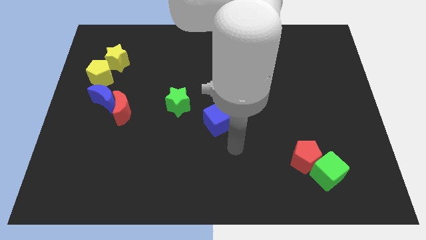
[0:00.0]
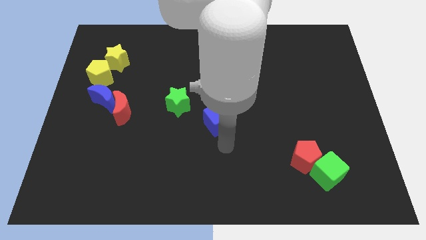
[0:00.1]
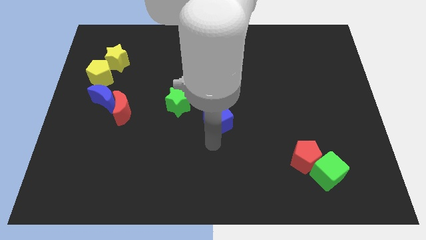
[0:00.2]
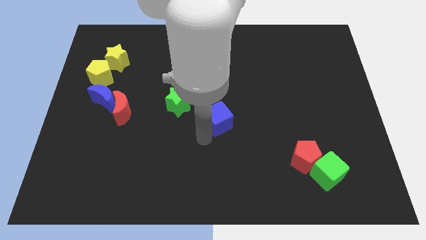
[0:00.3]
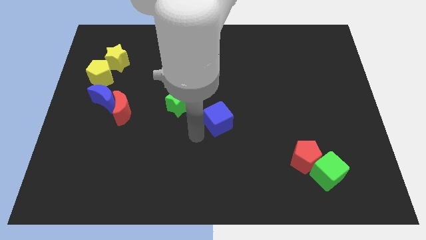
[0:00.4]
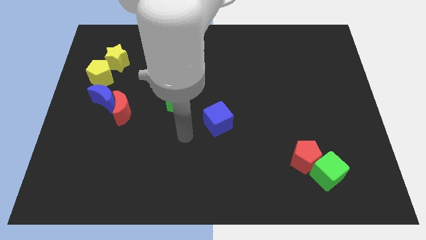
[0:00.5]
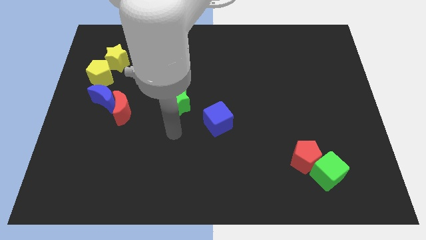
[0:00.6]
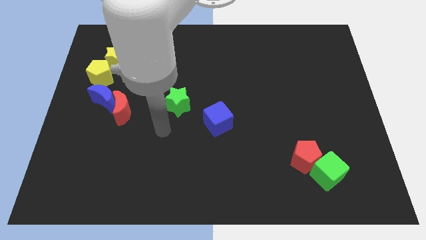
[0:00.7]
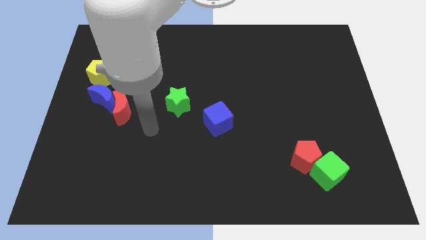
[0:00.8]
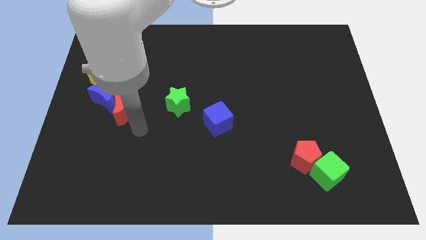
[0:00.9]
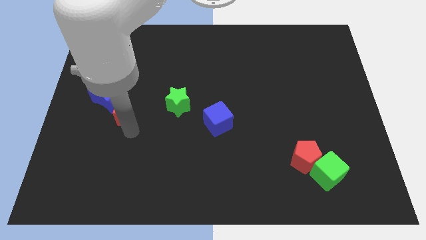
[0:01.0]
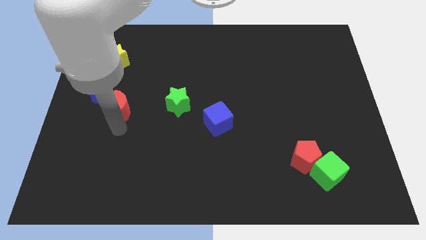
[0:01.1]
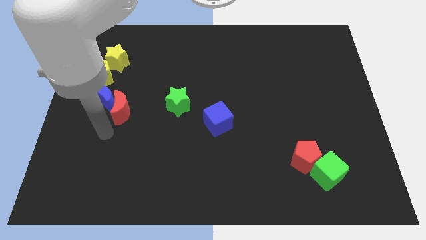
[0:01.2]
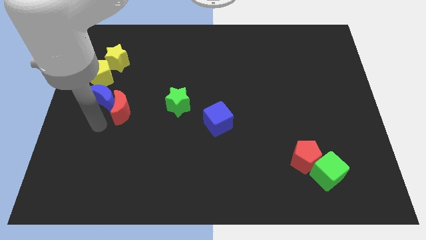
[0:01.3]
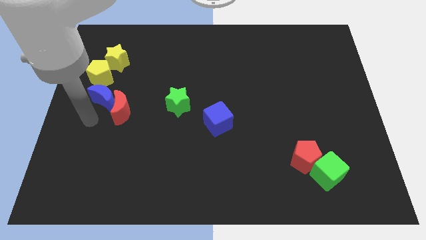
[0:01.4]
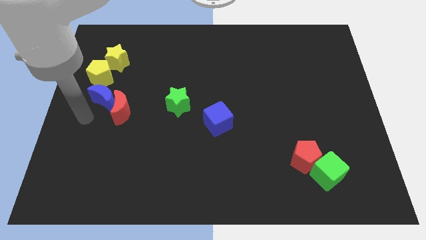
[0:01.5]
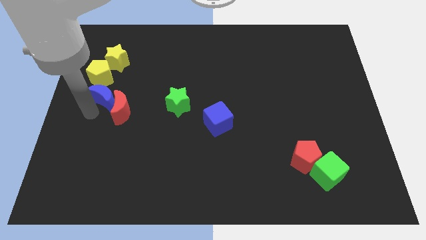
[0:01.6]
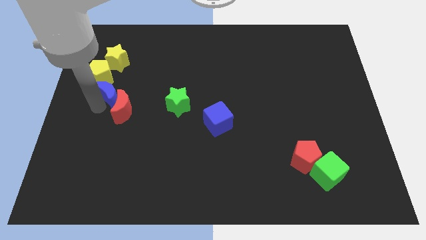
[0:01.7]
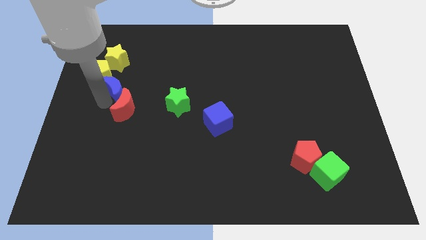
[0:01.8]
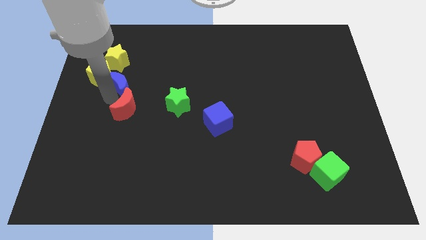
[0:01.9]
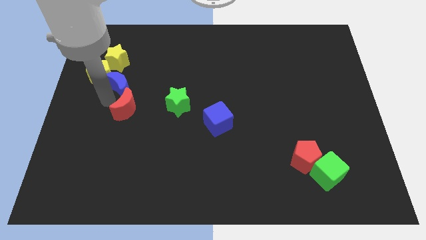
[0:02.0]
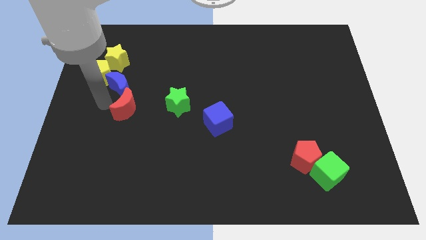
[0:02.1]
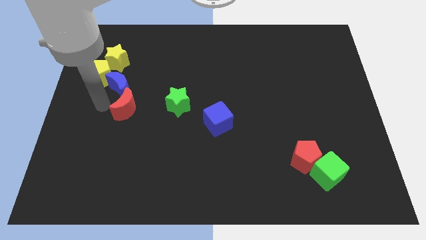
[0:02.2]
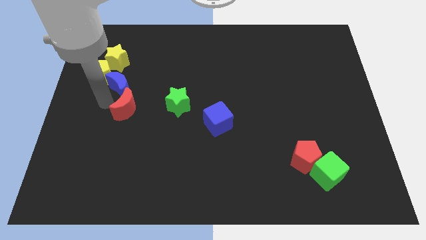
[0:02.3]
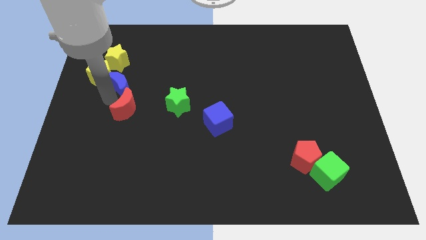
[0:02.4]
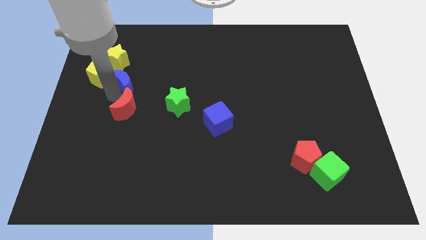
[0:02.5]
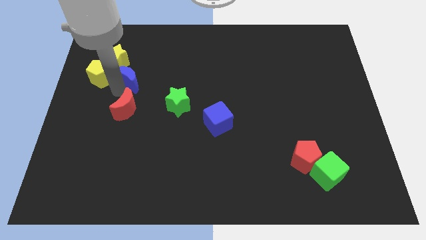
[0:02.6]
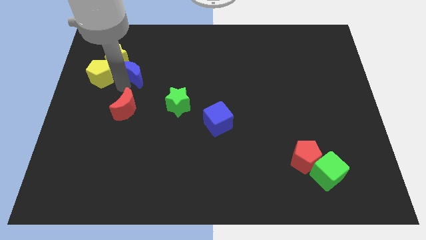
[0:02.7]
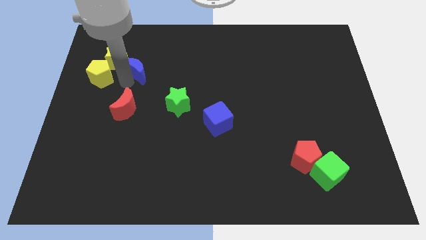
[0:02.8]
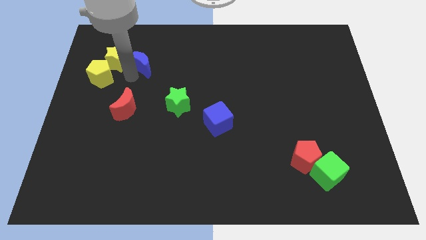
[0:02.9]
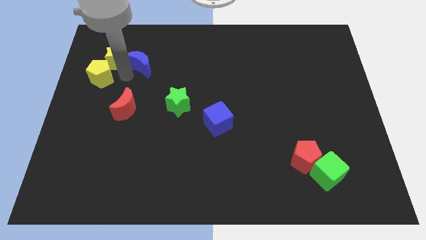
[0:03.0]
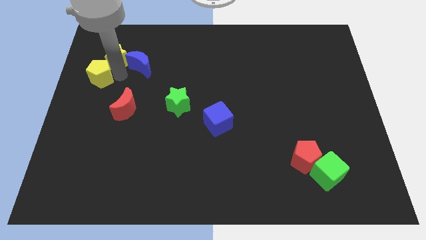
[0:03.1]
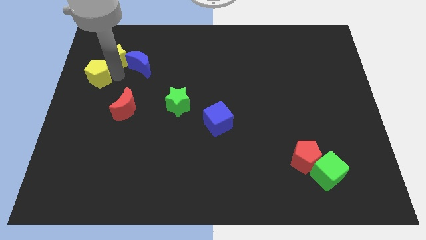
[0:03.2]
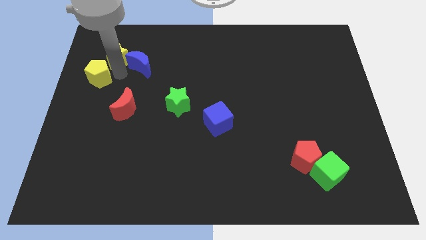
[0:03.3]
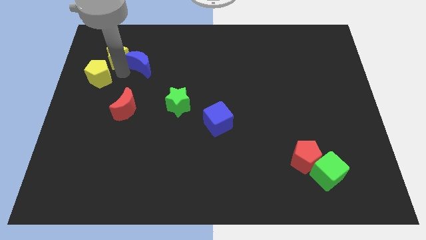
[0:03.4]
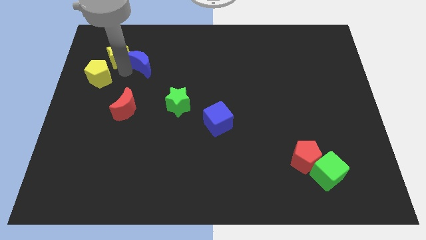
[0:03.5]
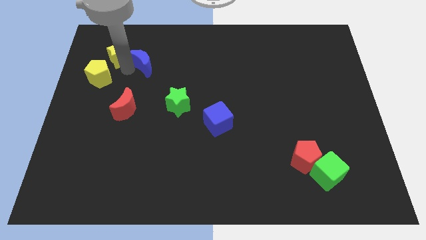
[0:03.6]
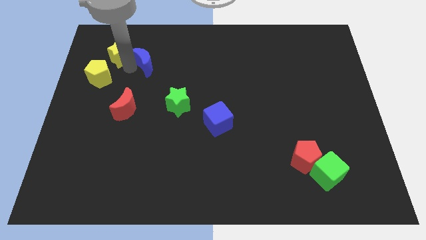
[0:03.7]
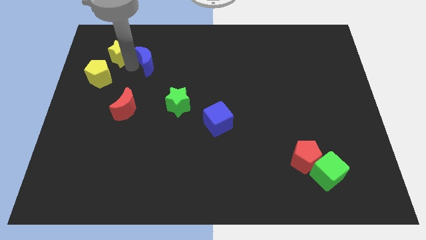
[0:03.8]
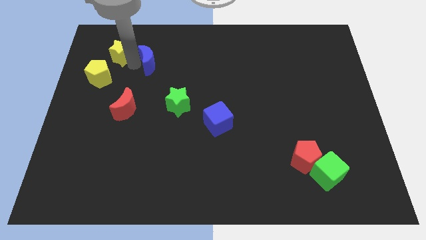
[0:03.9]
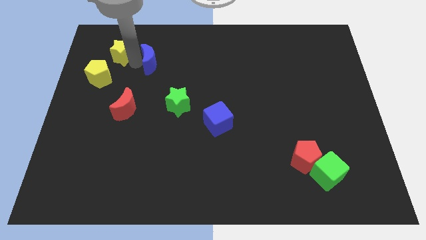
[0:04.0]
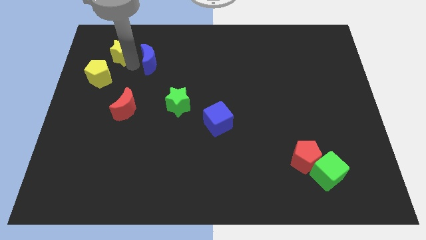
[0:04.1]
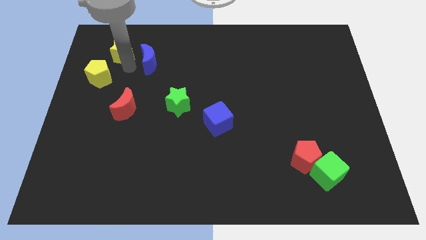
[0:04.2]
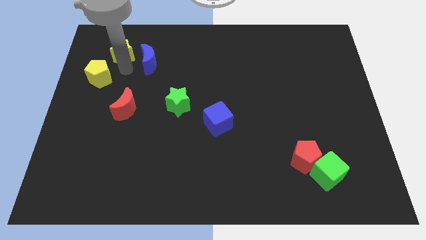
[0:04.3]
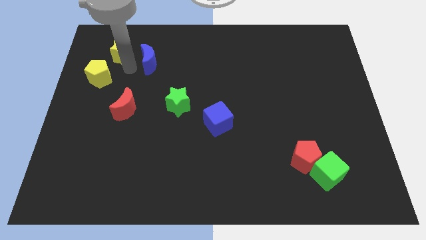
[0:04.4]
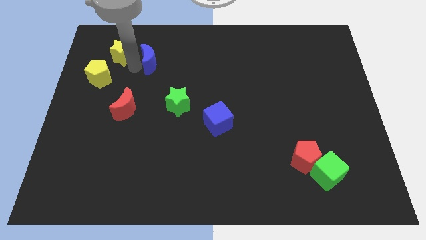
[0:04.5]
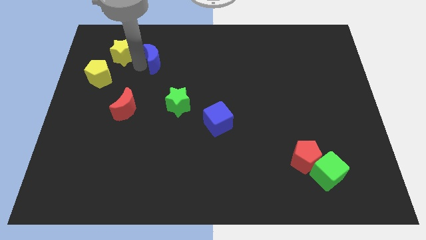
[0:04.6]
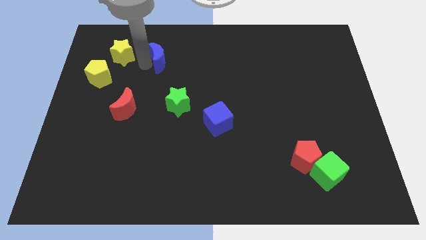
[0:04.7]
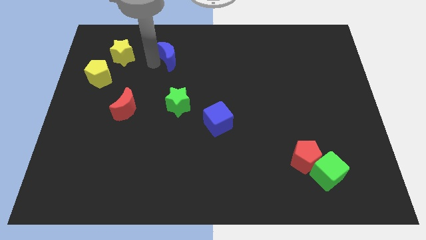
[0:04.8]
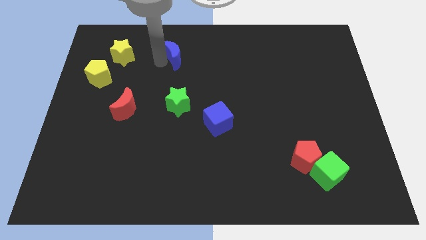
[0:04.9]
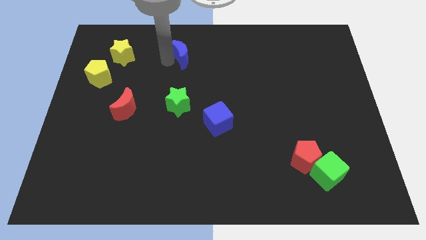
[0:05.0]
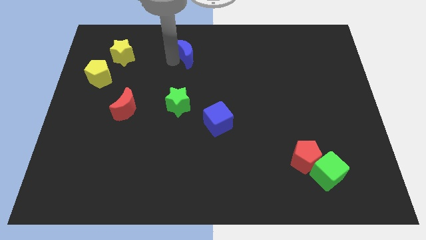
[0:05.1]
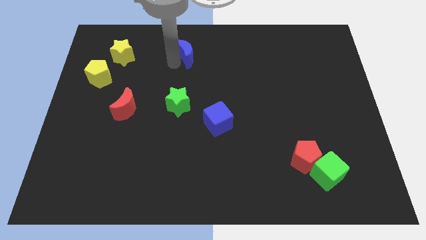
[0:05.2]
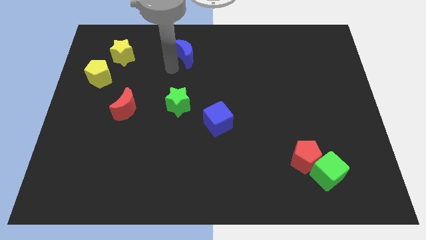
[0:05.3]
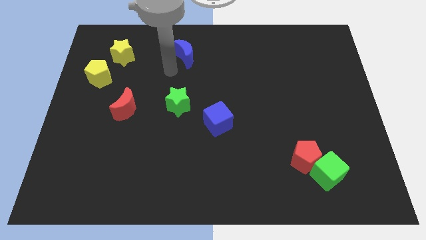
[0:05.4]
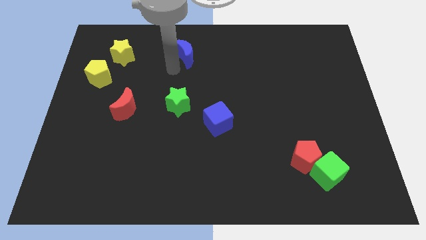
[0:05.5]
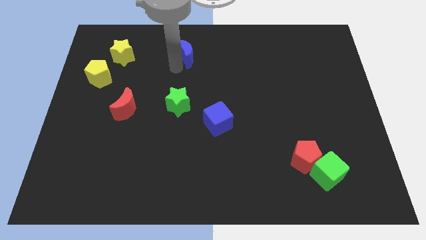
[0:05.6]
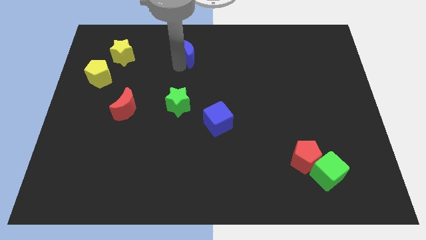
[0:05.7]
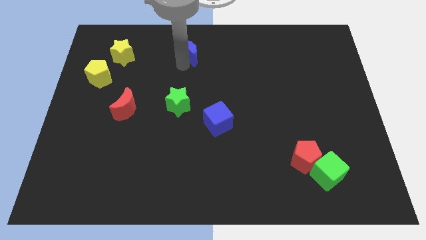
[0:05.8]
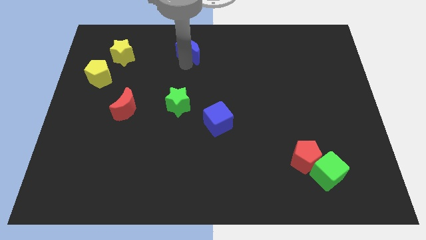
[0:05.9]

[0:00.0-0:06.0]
slide the blue moon to the towards your base
